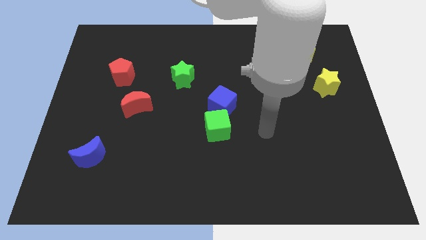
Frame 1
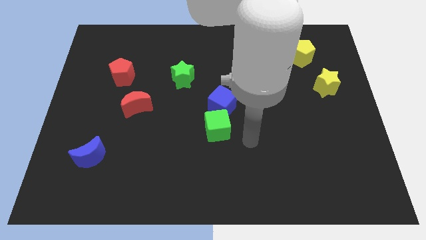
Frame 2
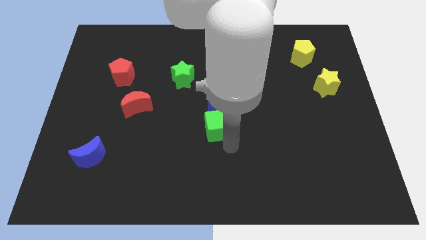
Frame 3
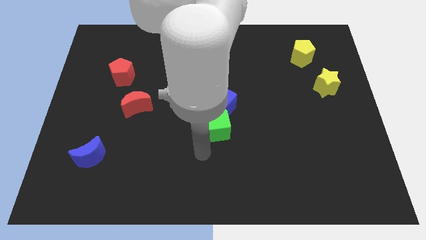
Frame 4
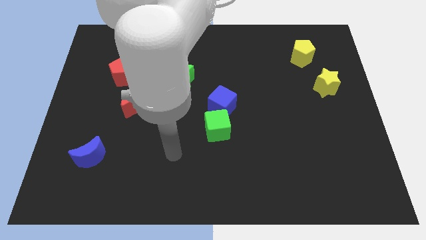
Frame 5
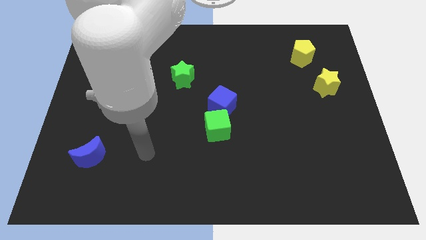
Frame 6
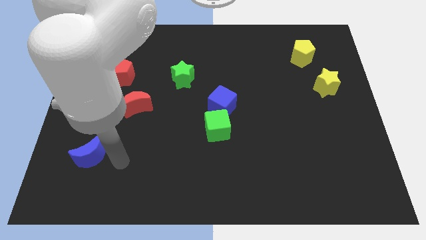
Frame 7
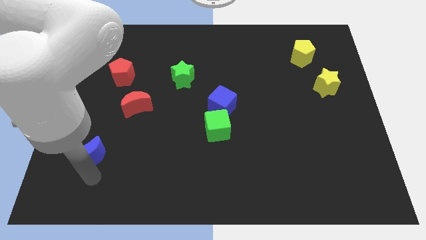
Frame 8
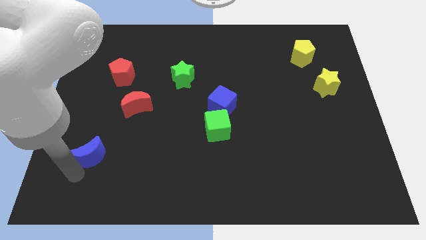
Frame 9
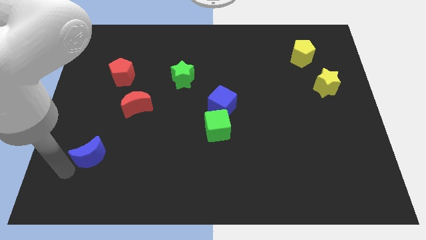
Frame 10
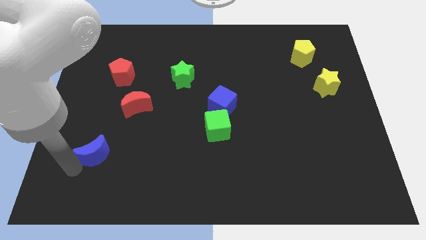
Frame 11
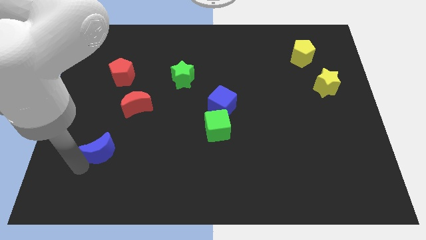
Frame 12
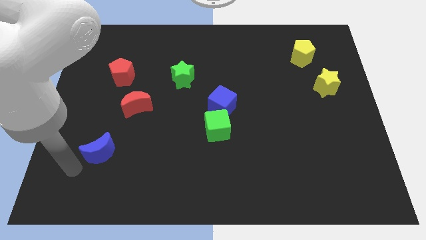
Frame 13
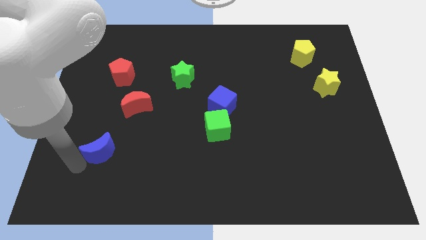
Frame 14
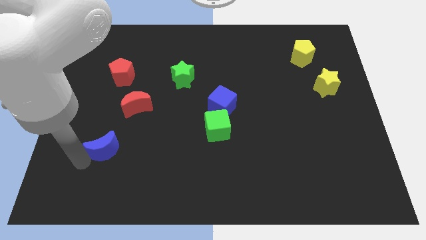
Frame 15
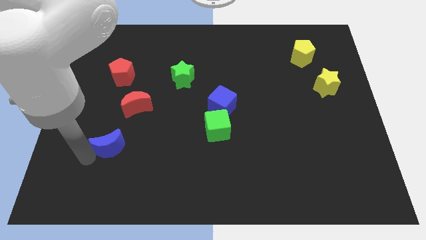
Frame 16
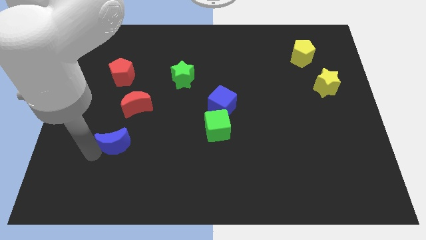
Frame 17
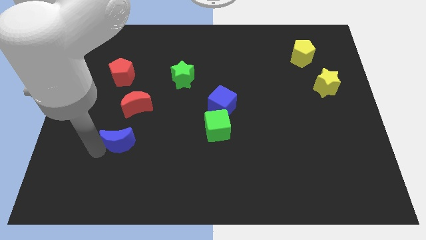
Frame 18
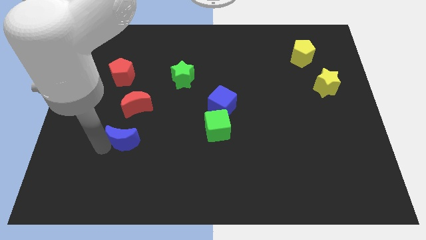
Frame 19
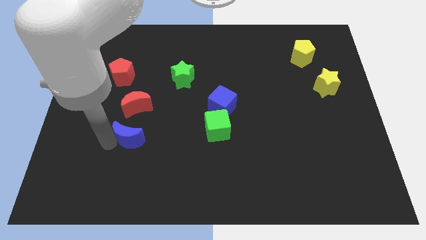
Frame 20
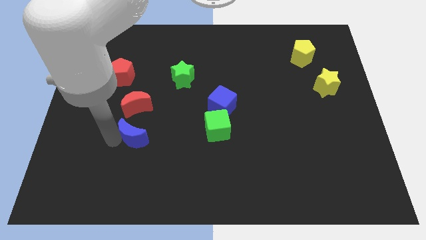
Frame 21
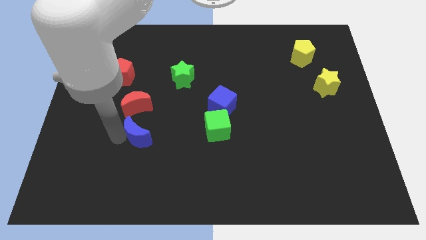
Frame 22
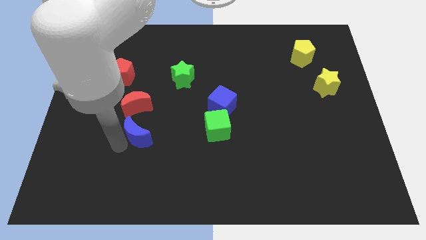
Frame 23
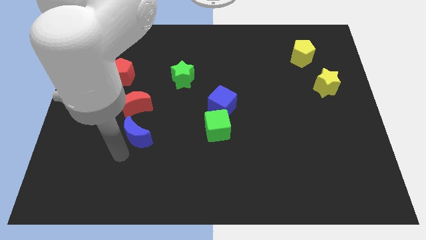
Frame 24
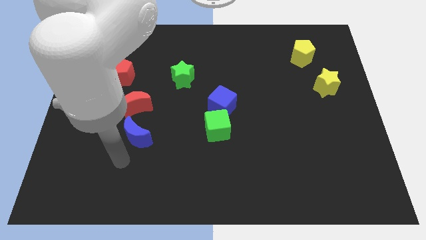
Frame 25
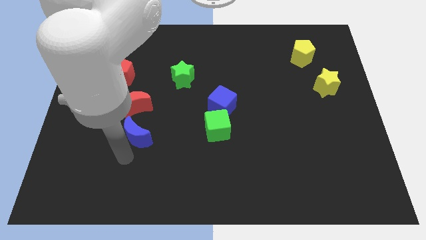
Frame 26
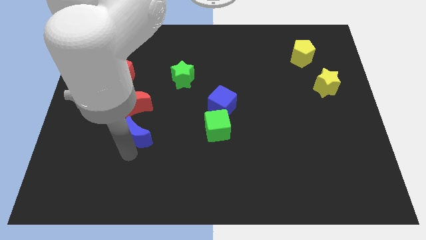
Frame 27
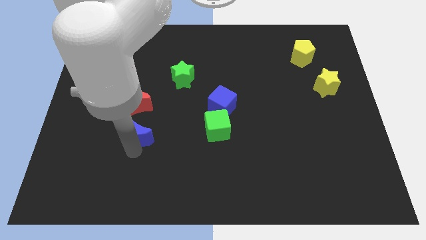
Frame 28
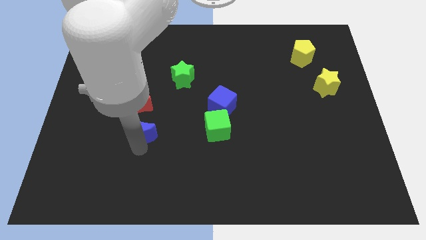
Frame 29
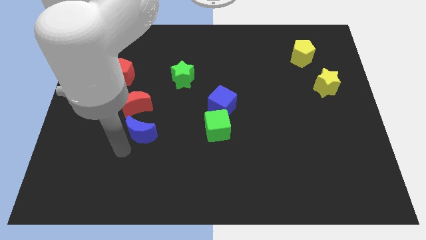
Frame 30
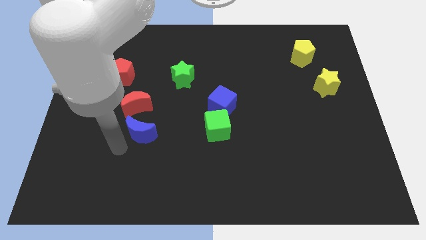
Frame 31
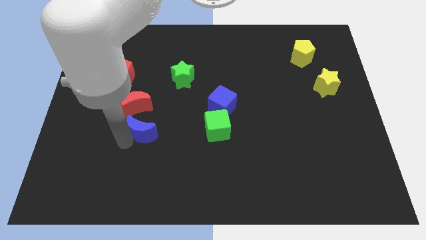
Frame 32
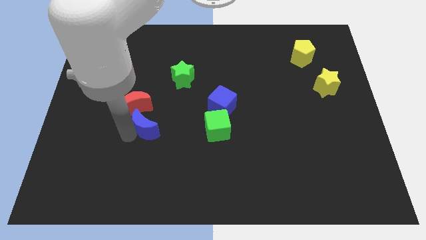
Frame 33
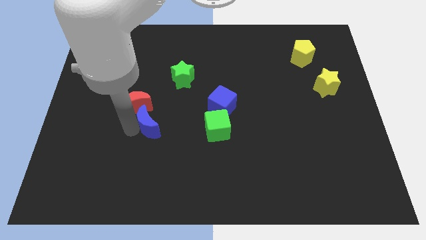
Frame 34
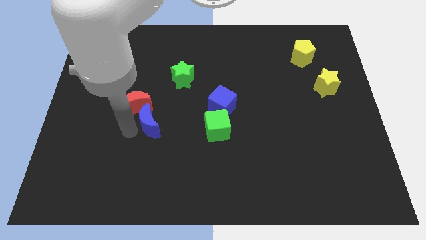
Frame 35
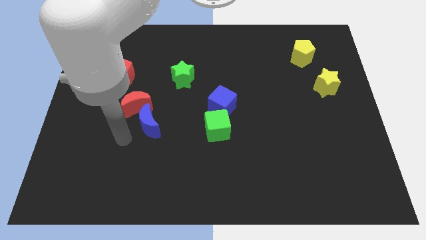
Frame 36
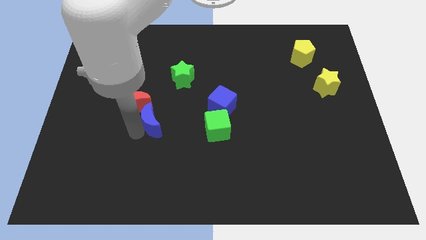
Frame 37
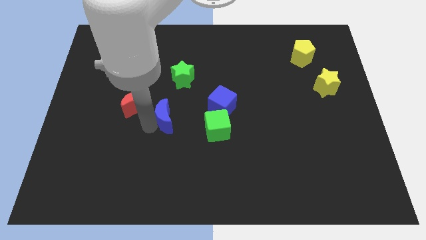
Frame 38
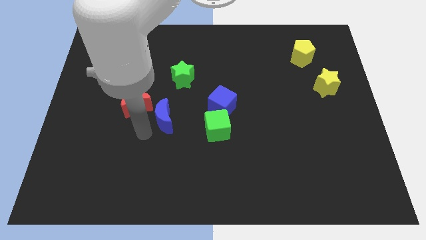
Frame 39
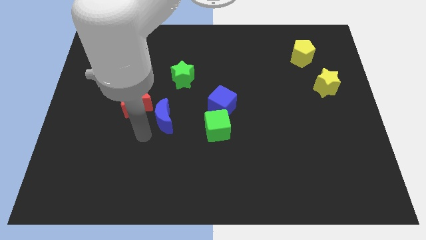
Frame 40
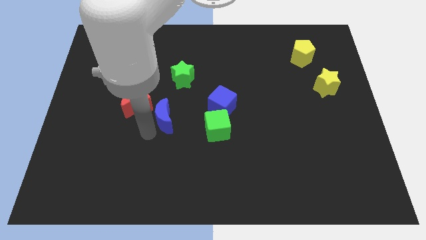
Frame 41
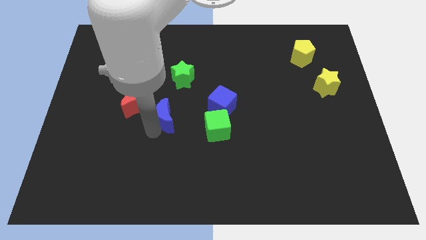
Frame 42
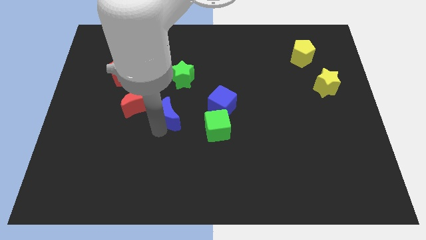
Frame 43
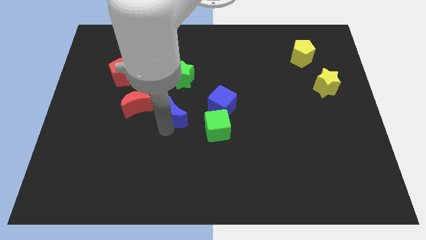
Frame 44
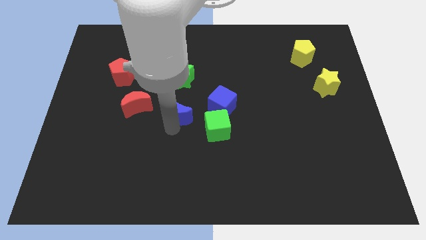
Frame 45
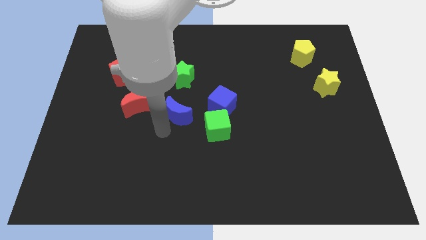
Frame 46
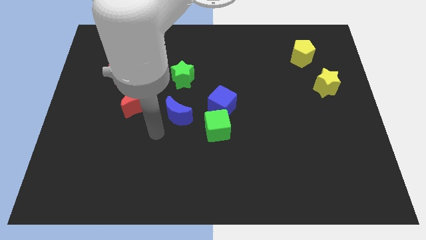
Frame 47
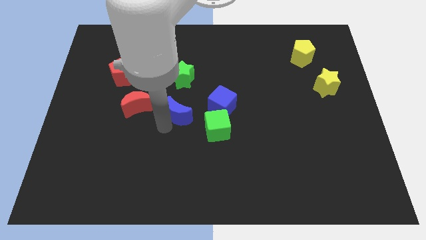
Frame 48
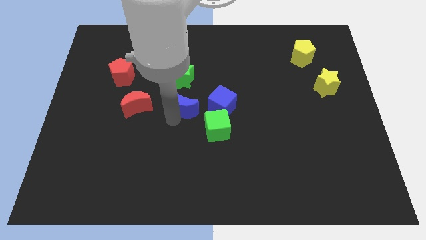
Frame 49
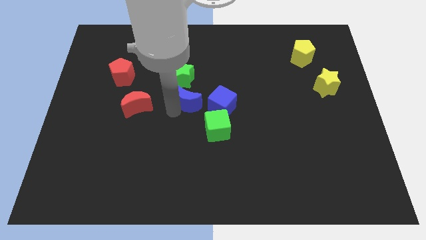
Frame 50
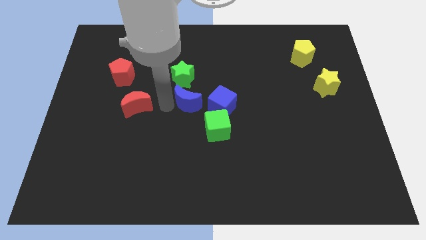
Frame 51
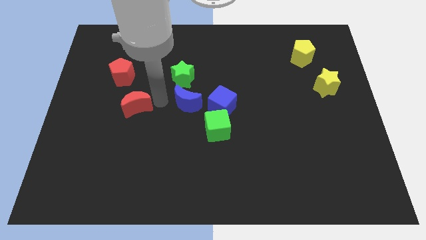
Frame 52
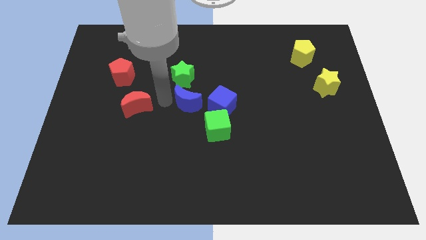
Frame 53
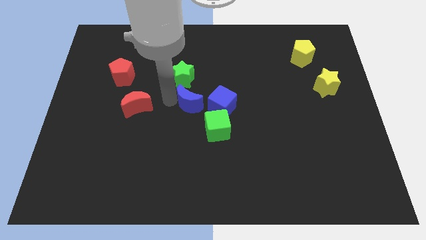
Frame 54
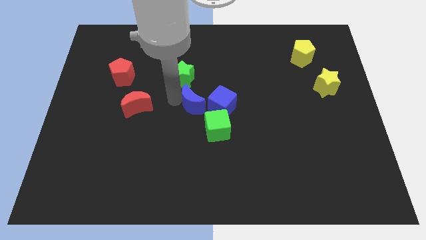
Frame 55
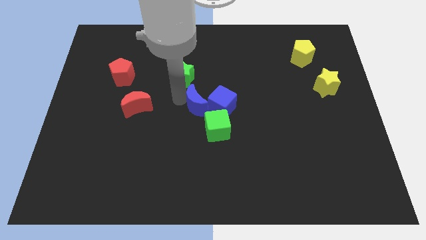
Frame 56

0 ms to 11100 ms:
move the blue moon to the blue cube

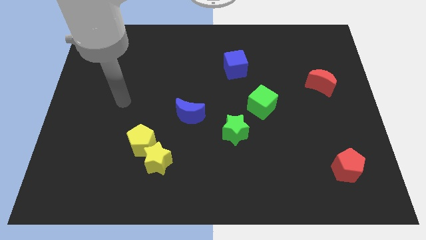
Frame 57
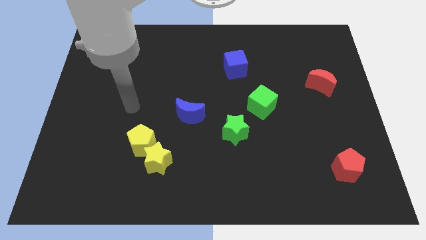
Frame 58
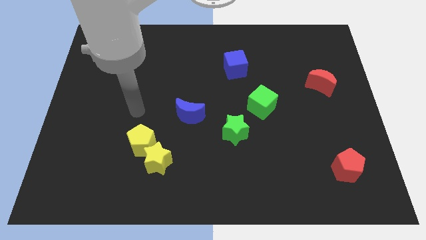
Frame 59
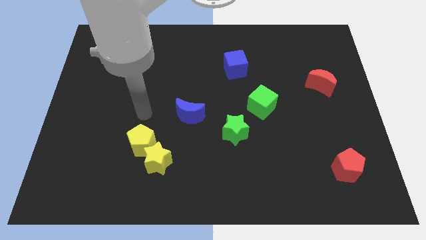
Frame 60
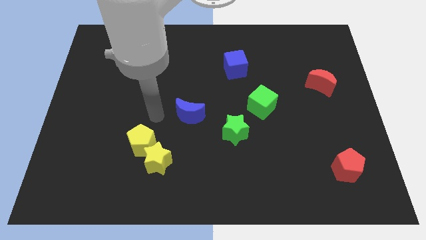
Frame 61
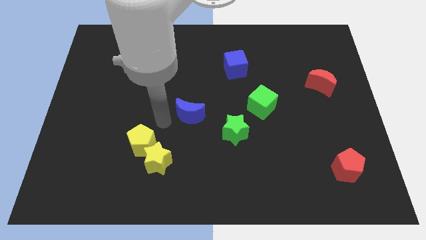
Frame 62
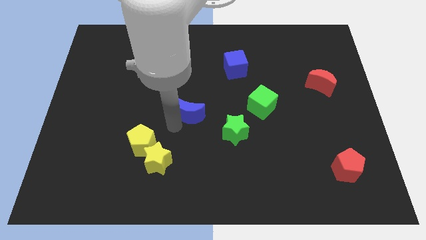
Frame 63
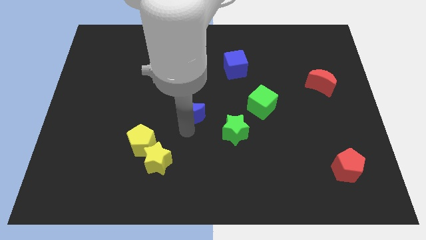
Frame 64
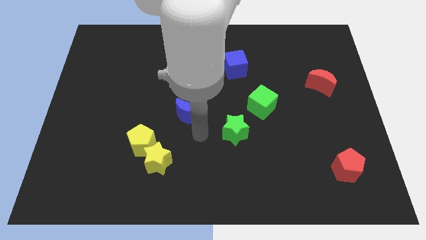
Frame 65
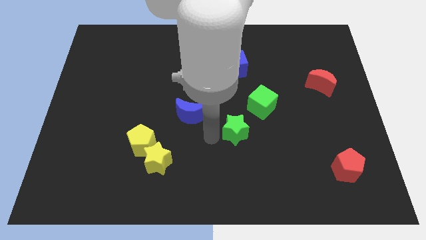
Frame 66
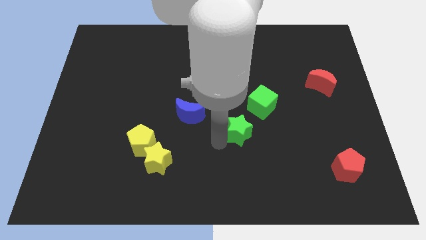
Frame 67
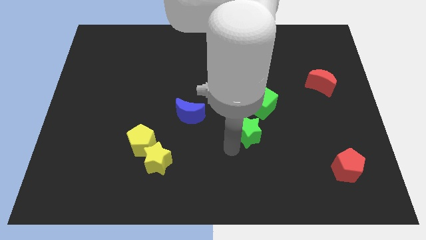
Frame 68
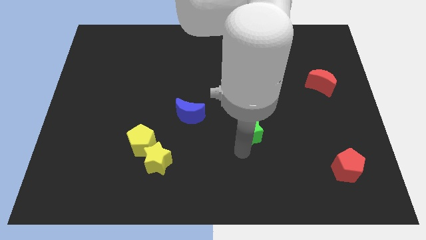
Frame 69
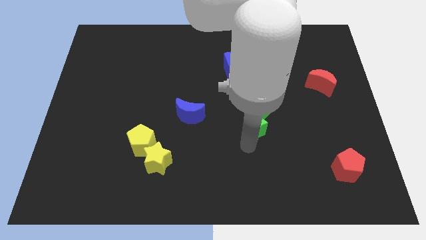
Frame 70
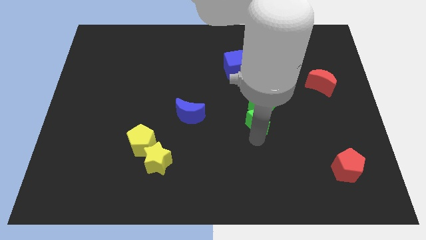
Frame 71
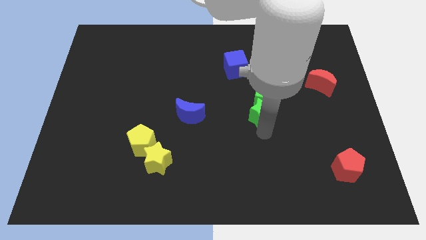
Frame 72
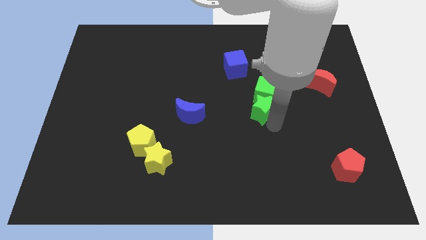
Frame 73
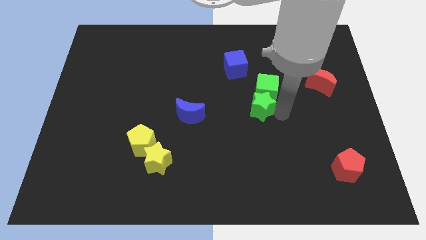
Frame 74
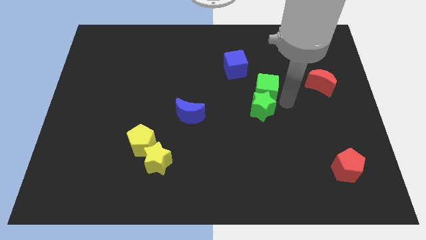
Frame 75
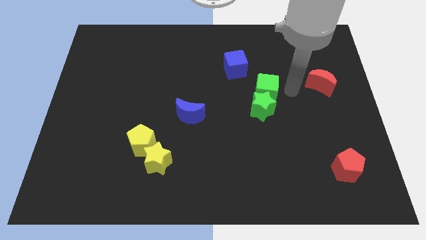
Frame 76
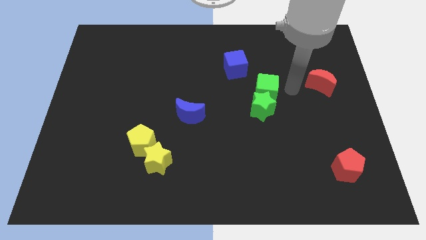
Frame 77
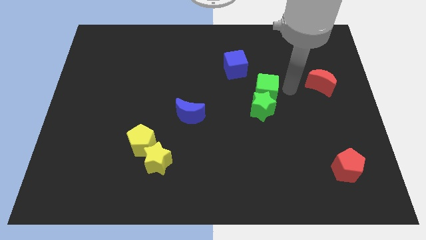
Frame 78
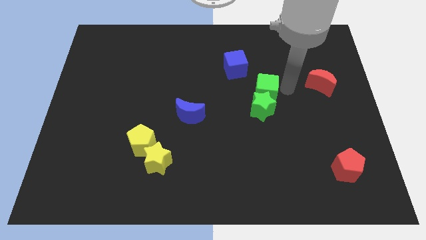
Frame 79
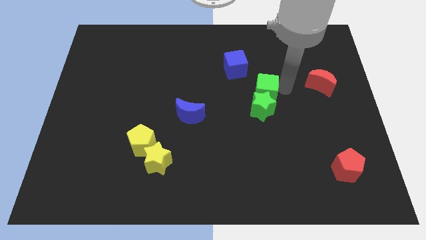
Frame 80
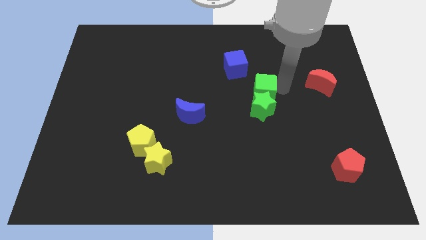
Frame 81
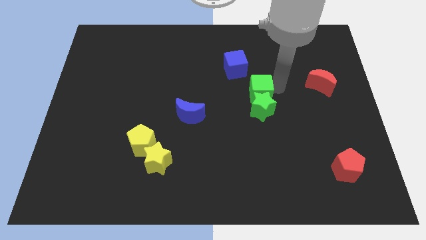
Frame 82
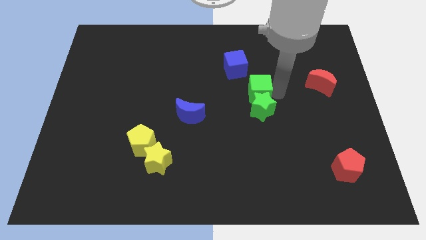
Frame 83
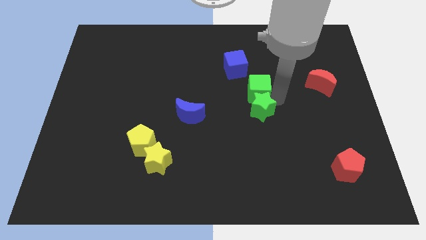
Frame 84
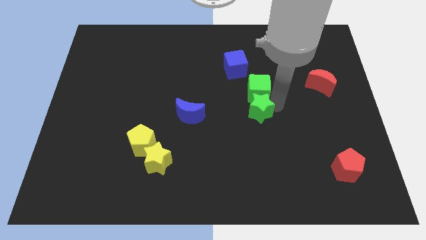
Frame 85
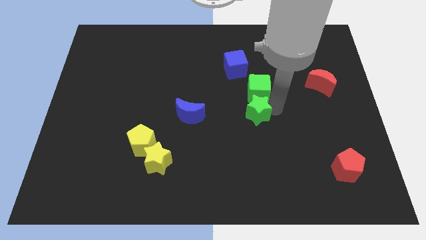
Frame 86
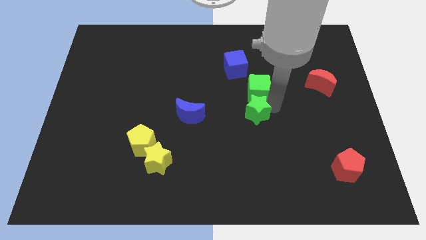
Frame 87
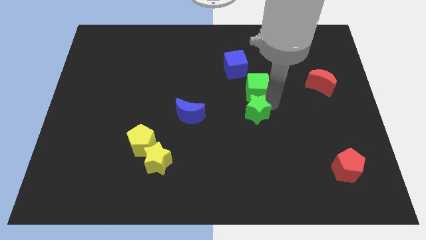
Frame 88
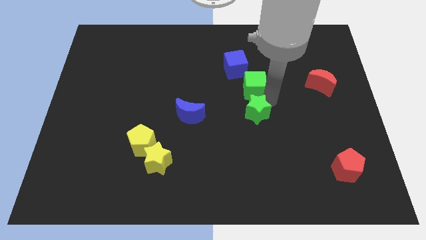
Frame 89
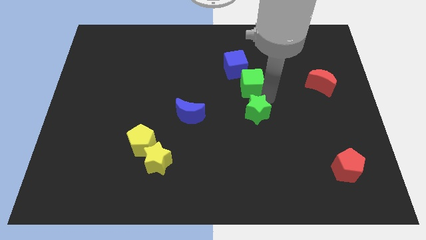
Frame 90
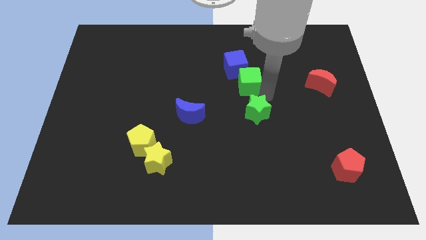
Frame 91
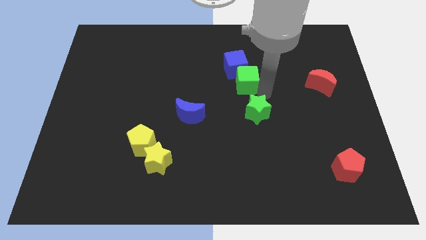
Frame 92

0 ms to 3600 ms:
slide the green cube next to the blue cube
